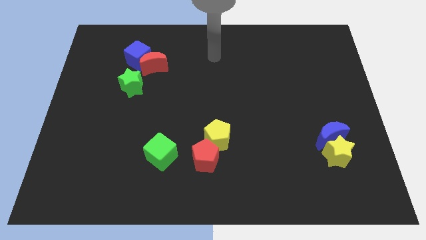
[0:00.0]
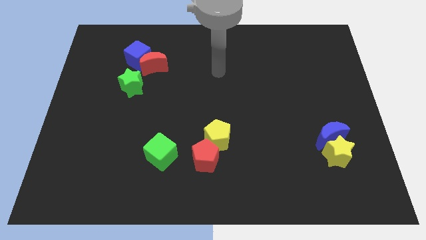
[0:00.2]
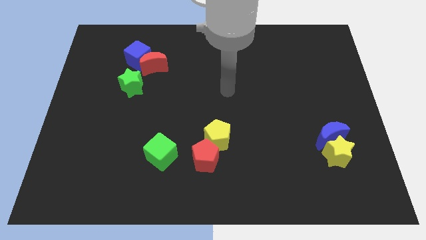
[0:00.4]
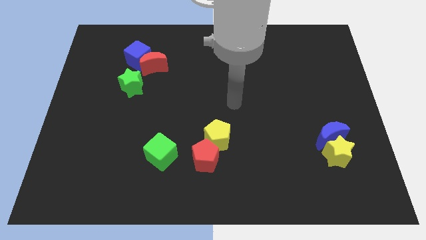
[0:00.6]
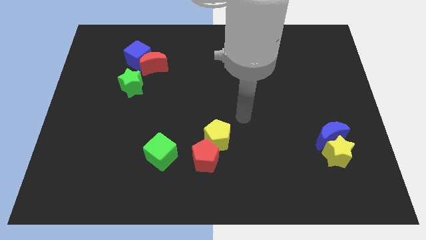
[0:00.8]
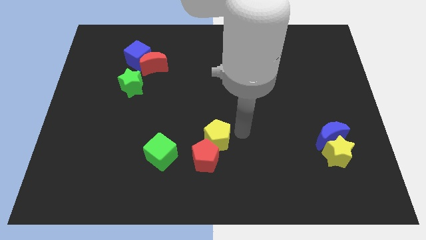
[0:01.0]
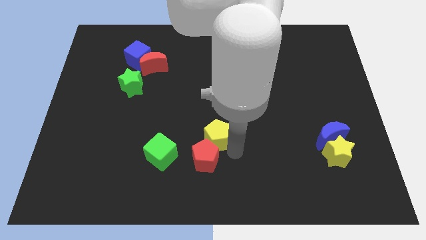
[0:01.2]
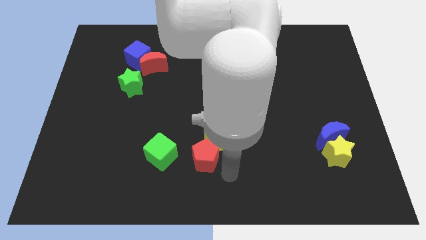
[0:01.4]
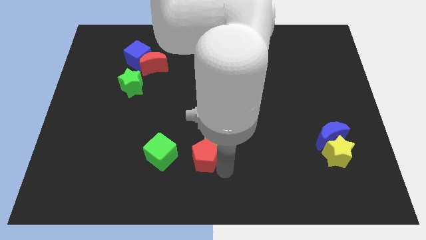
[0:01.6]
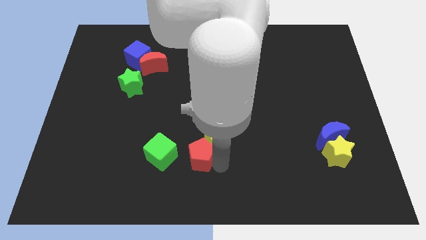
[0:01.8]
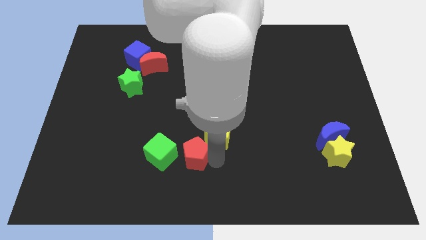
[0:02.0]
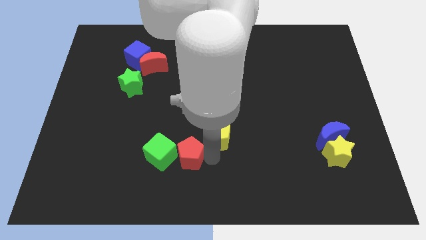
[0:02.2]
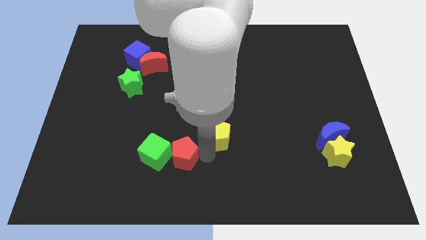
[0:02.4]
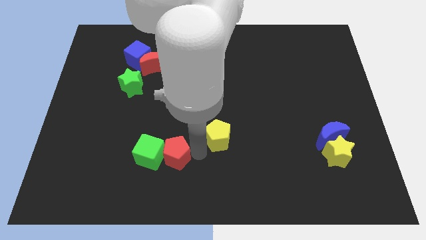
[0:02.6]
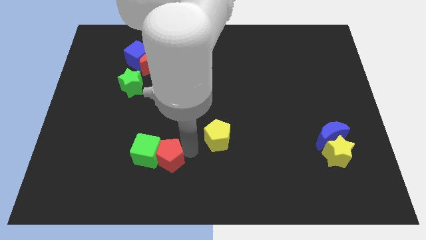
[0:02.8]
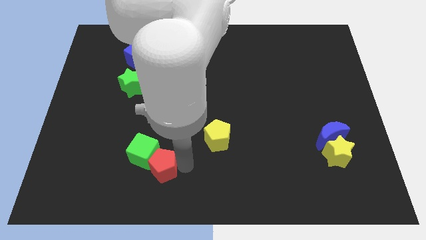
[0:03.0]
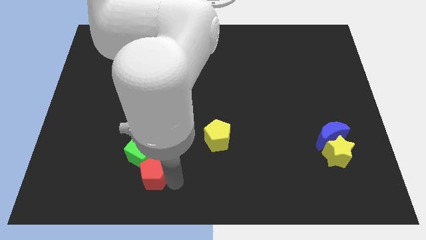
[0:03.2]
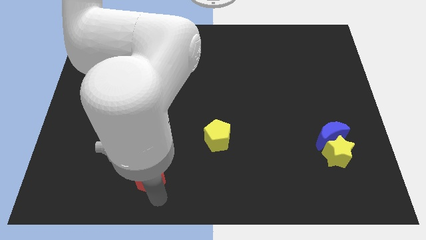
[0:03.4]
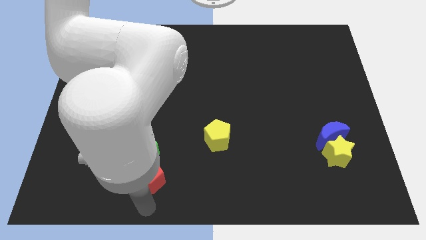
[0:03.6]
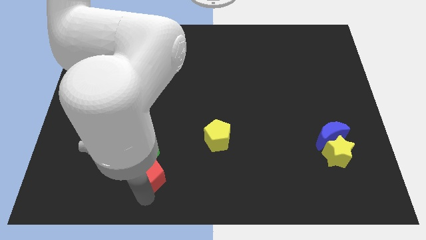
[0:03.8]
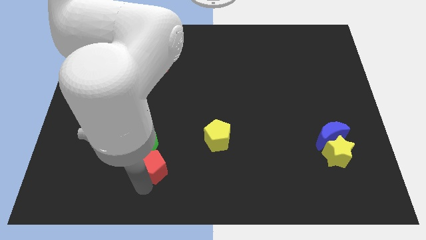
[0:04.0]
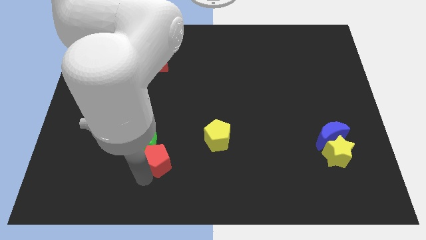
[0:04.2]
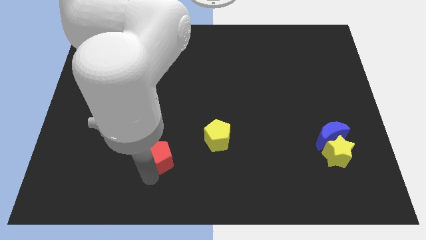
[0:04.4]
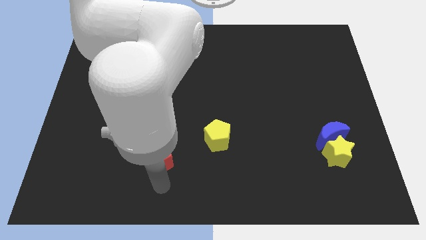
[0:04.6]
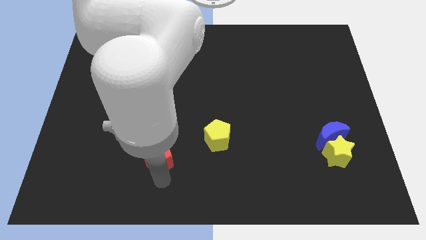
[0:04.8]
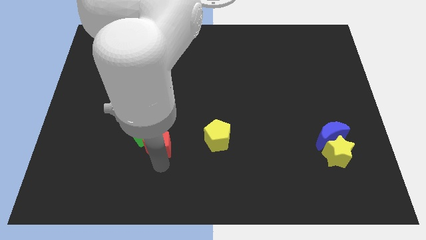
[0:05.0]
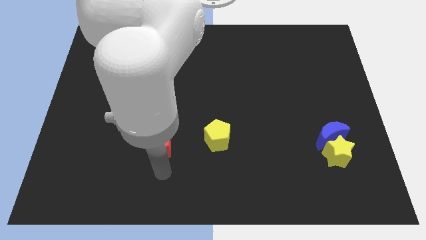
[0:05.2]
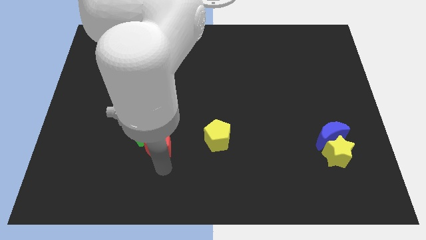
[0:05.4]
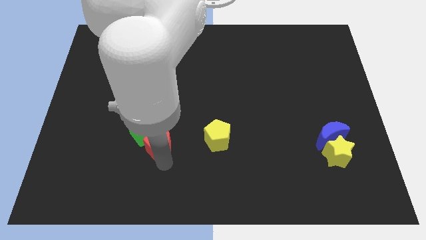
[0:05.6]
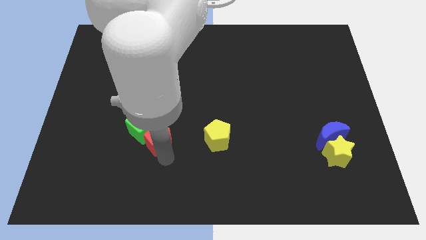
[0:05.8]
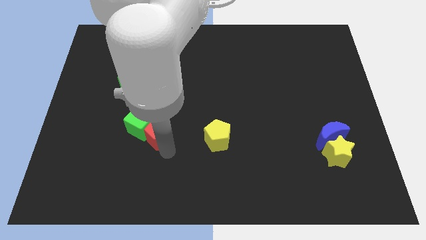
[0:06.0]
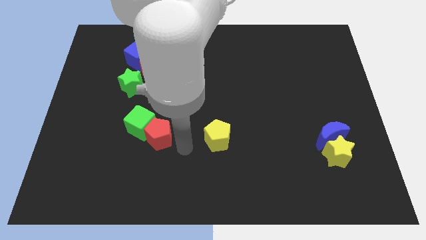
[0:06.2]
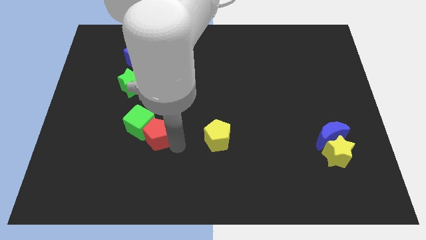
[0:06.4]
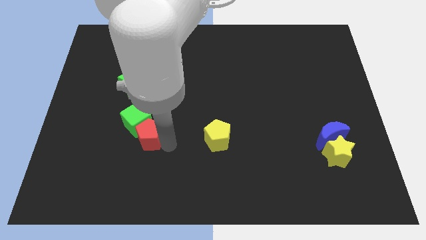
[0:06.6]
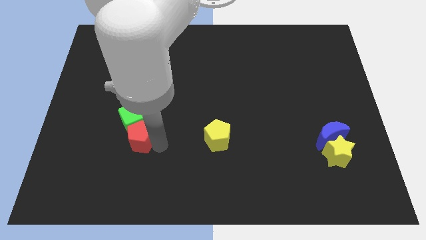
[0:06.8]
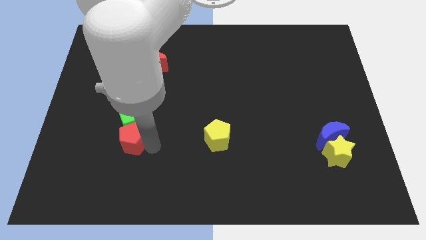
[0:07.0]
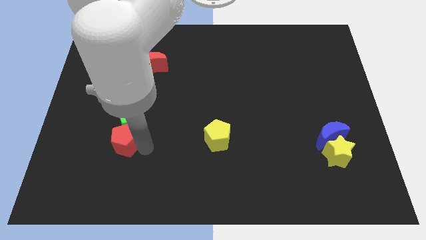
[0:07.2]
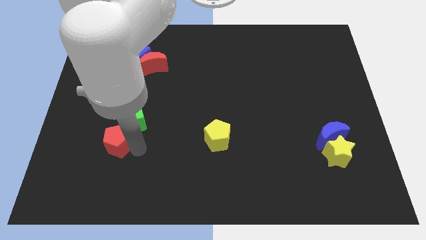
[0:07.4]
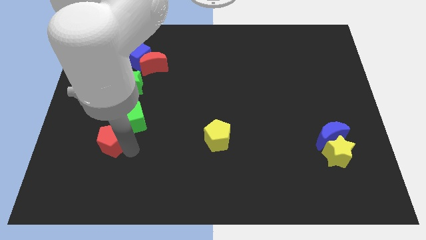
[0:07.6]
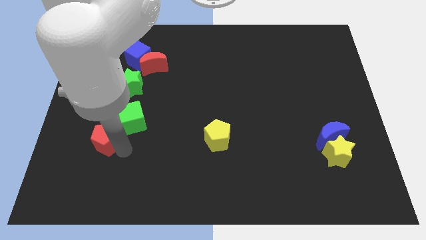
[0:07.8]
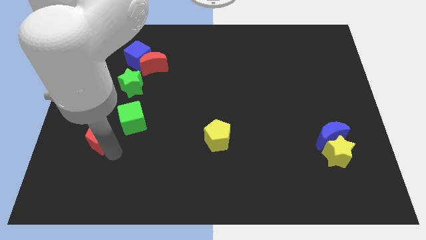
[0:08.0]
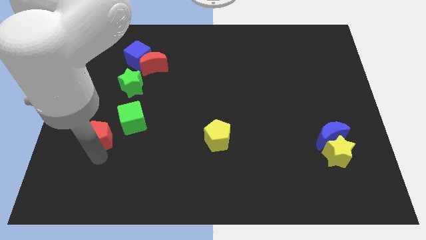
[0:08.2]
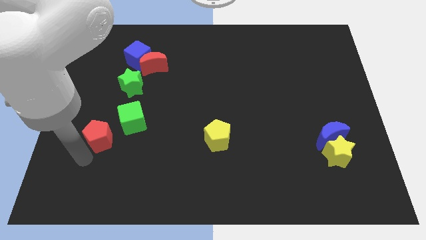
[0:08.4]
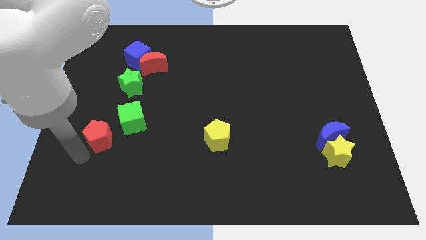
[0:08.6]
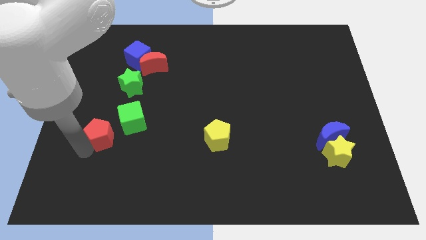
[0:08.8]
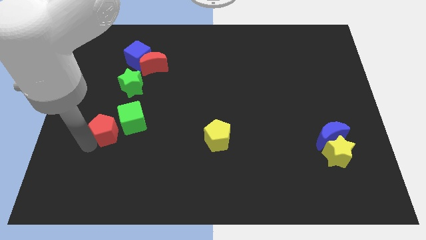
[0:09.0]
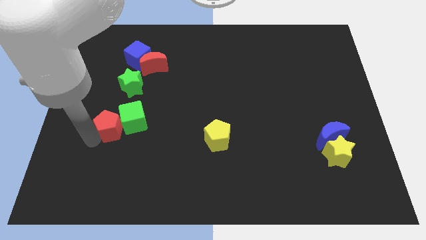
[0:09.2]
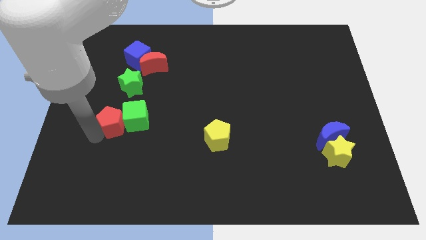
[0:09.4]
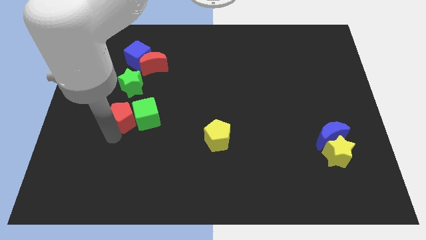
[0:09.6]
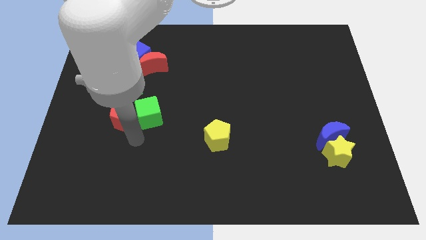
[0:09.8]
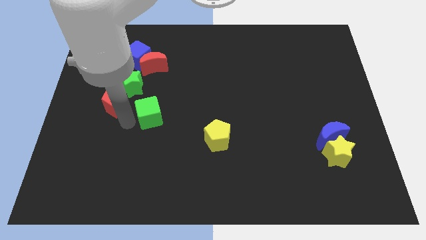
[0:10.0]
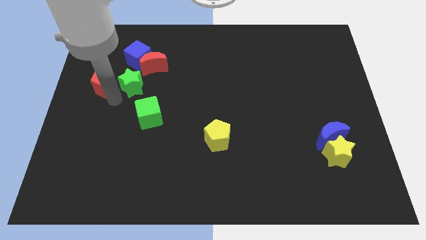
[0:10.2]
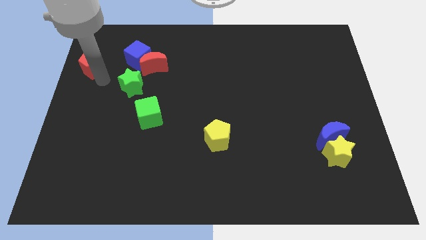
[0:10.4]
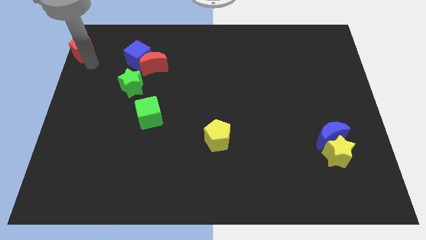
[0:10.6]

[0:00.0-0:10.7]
move the red pentagon to the top left

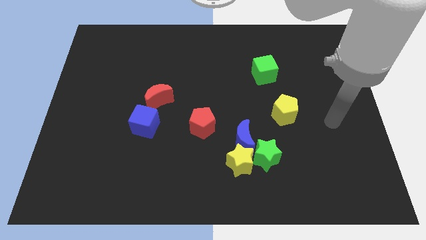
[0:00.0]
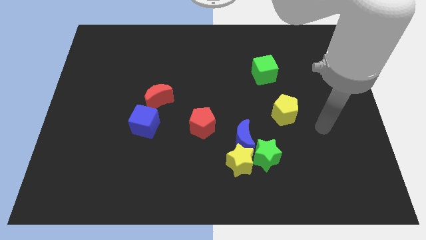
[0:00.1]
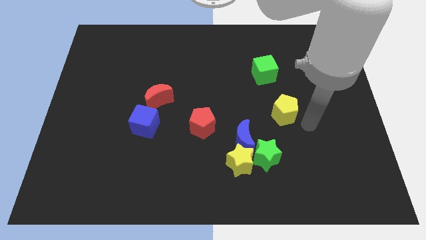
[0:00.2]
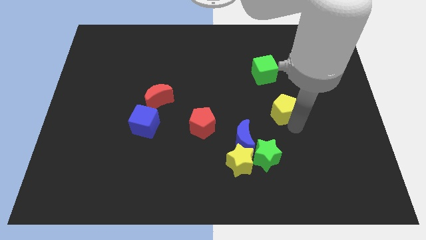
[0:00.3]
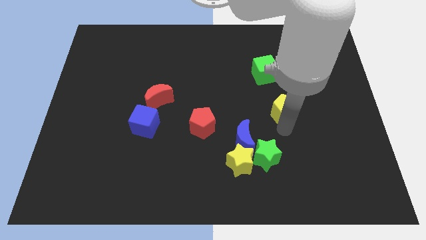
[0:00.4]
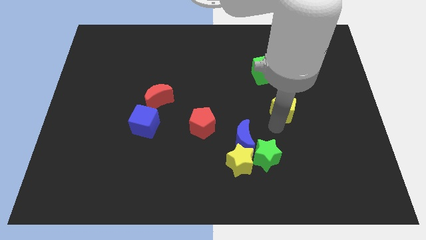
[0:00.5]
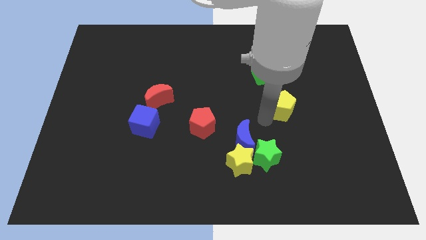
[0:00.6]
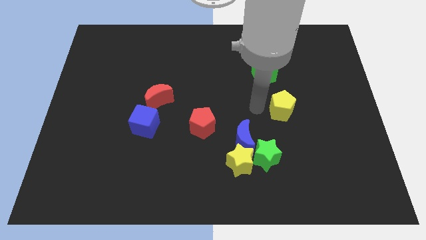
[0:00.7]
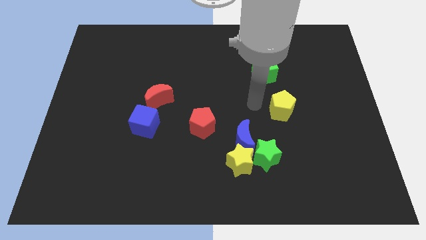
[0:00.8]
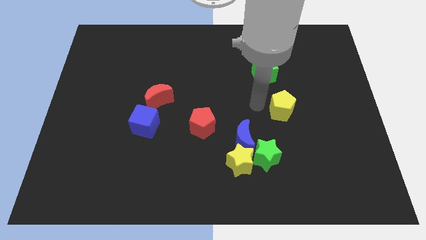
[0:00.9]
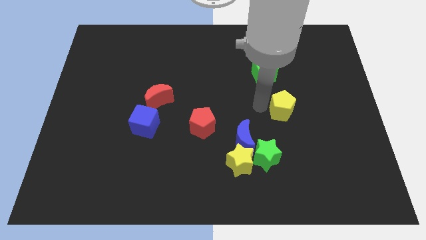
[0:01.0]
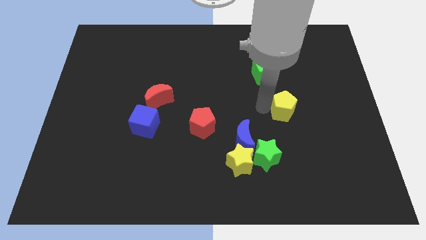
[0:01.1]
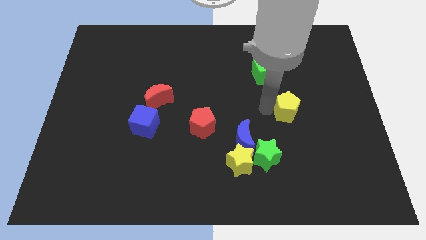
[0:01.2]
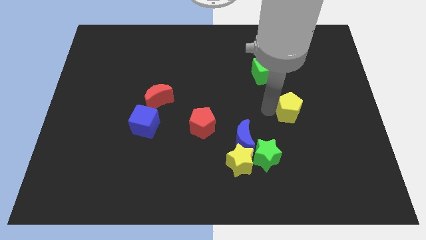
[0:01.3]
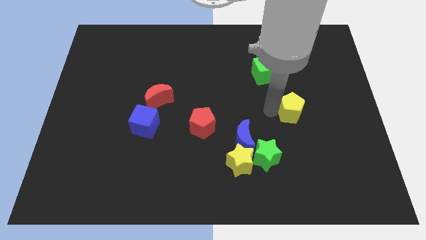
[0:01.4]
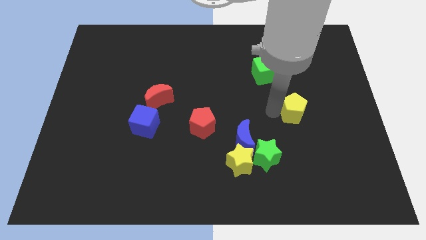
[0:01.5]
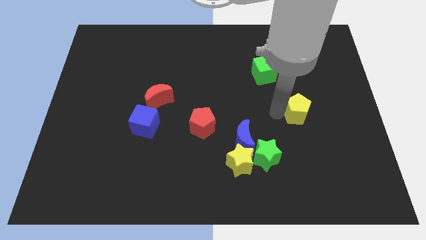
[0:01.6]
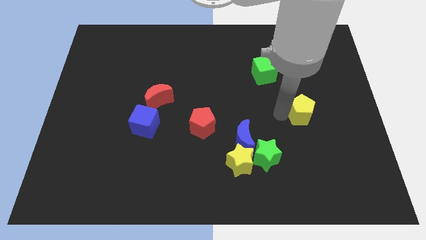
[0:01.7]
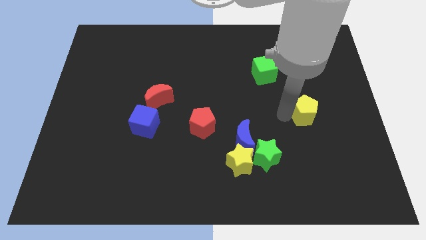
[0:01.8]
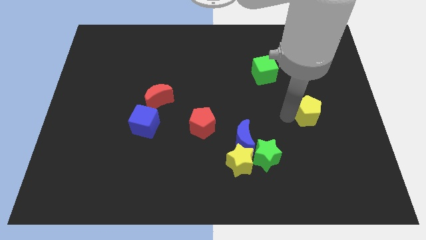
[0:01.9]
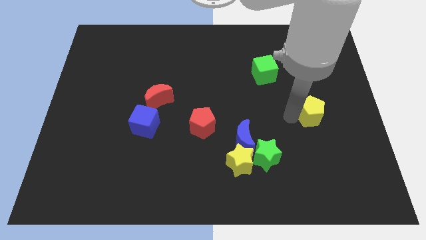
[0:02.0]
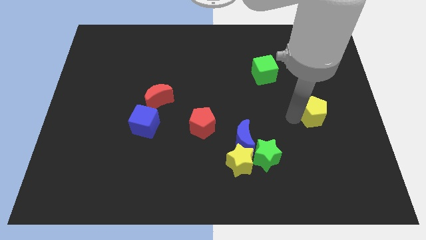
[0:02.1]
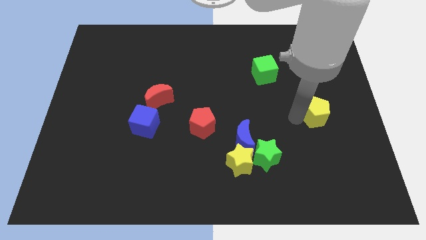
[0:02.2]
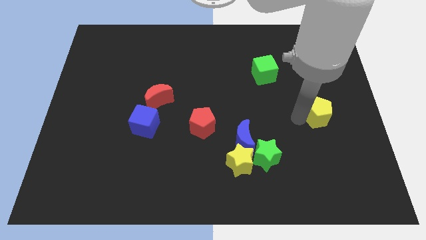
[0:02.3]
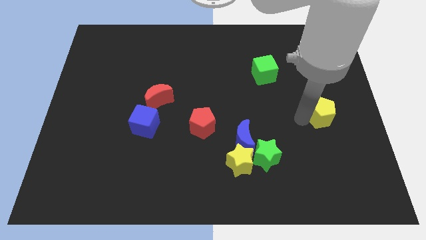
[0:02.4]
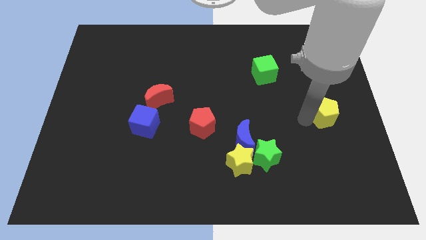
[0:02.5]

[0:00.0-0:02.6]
slide the yellow pentagon to the right side of the board
